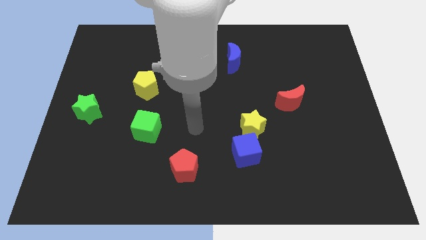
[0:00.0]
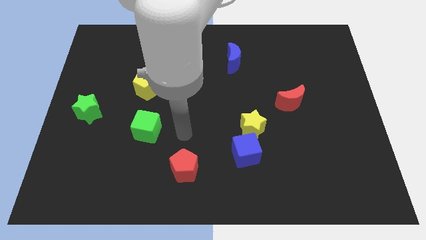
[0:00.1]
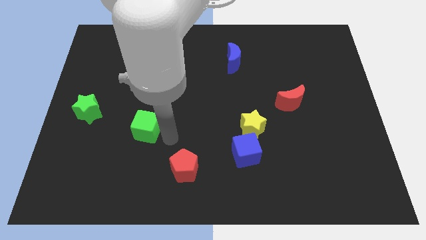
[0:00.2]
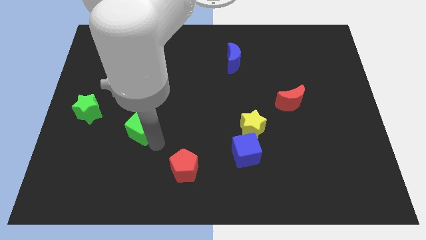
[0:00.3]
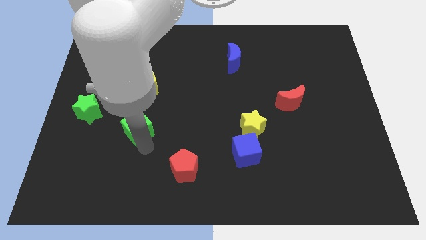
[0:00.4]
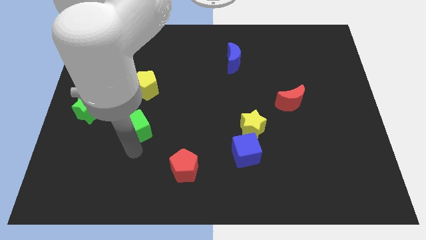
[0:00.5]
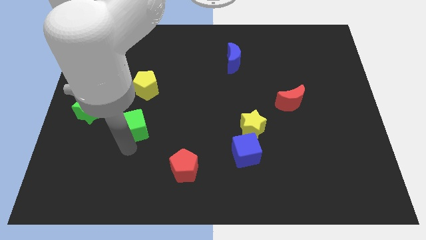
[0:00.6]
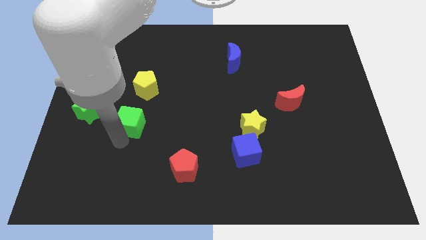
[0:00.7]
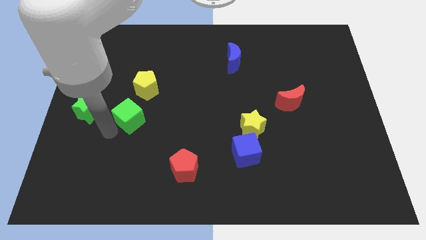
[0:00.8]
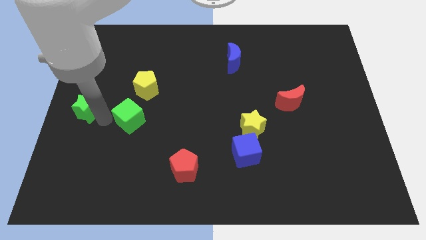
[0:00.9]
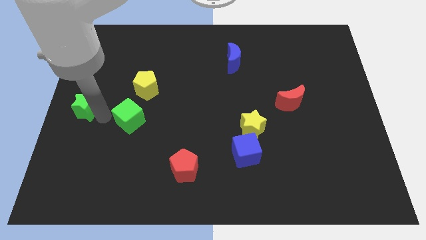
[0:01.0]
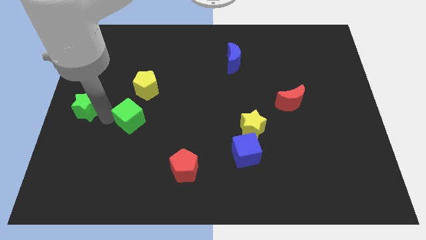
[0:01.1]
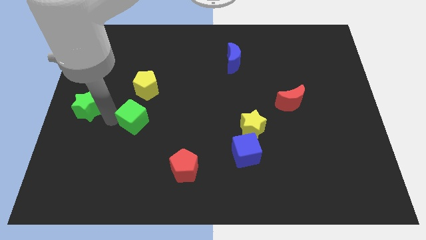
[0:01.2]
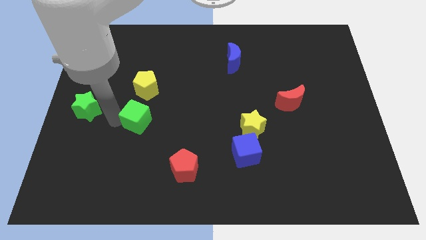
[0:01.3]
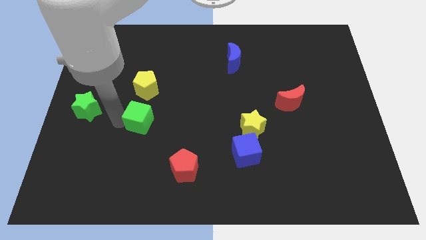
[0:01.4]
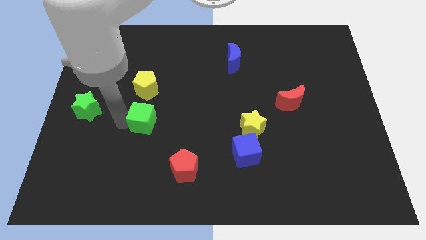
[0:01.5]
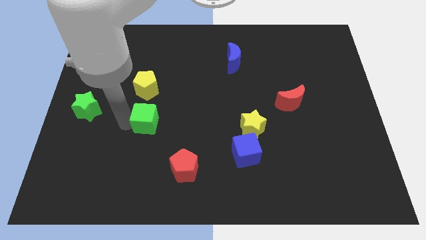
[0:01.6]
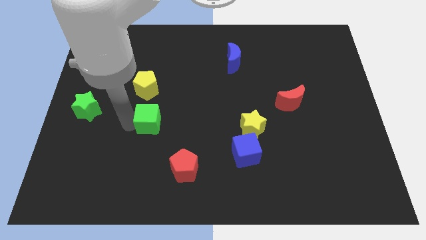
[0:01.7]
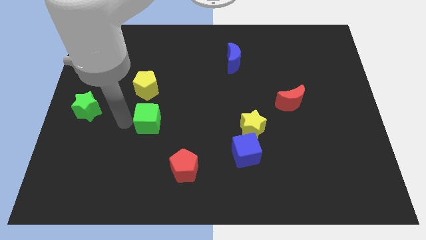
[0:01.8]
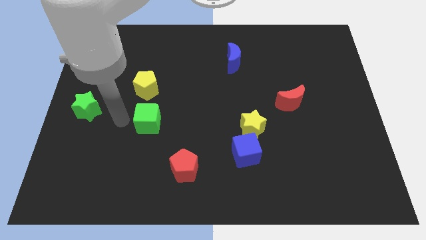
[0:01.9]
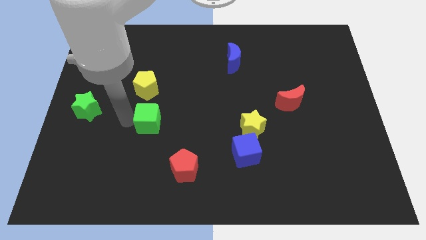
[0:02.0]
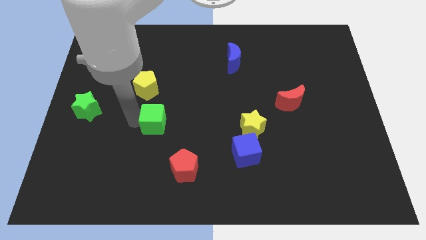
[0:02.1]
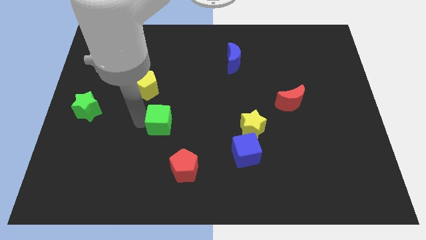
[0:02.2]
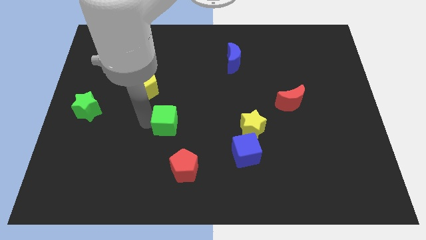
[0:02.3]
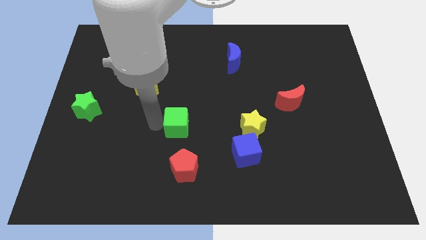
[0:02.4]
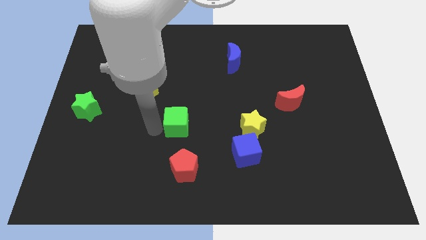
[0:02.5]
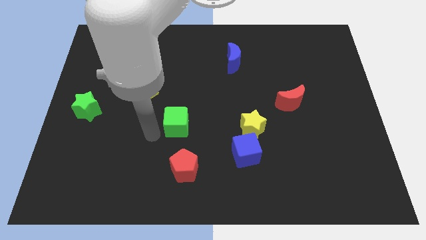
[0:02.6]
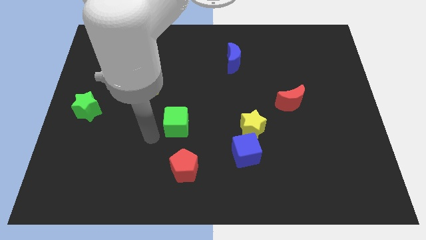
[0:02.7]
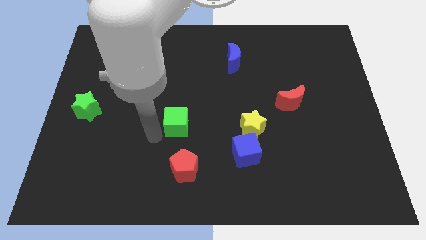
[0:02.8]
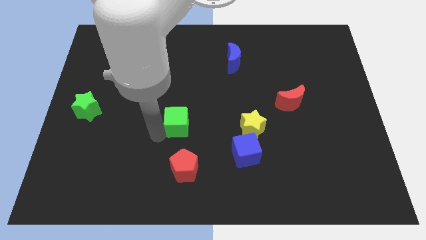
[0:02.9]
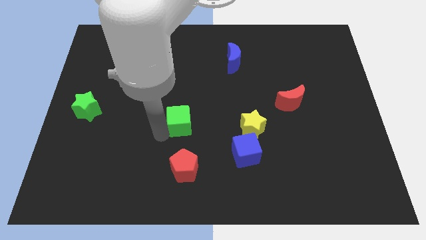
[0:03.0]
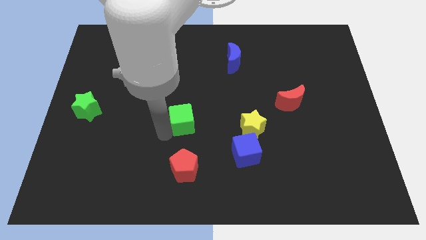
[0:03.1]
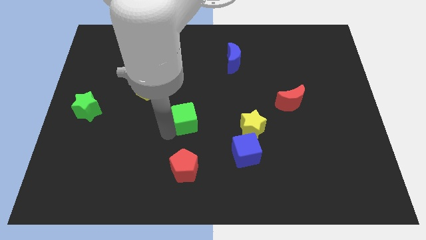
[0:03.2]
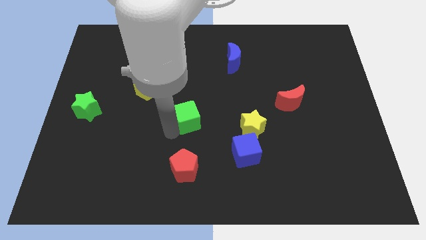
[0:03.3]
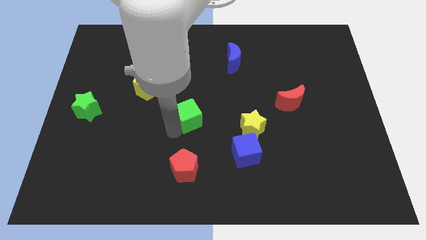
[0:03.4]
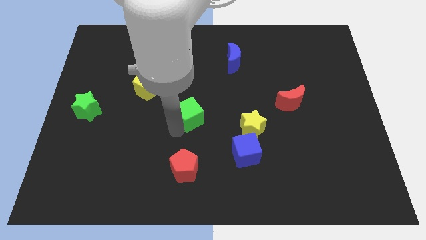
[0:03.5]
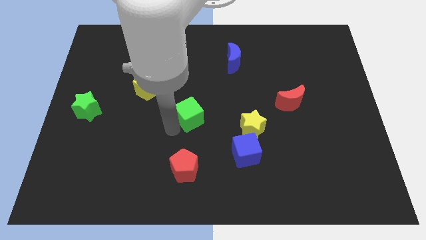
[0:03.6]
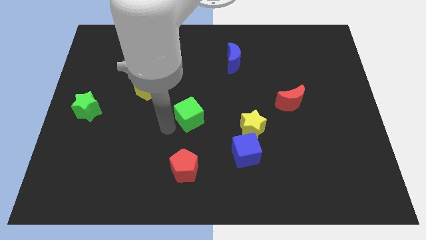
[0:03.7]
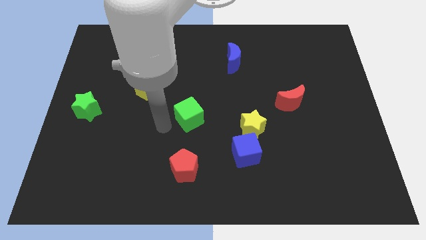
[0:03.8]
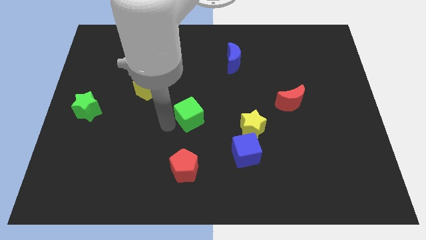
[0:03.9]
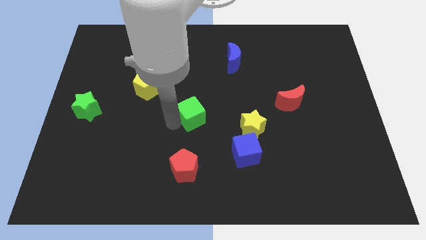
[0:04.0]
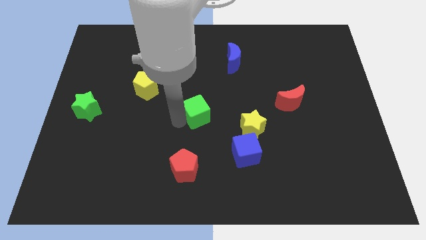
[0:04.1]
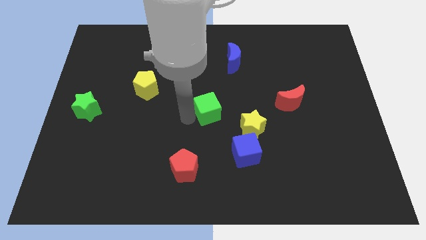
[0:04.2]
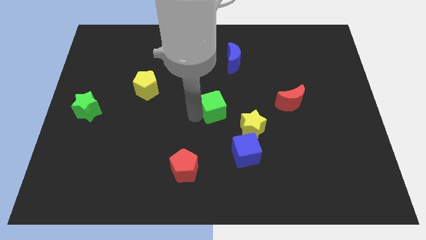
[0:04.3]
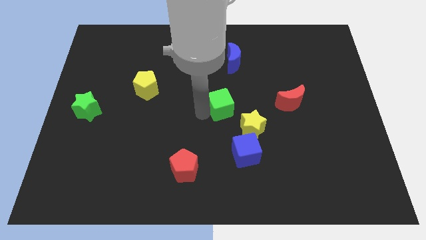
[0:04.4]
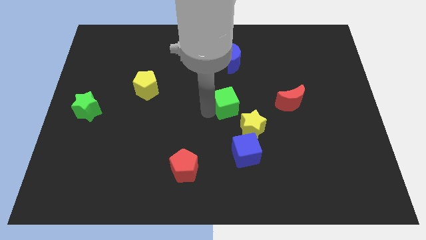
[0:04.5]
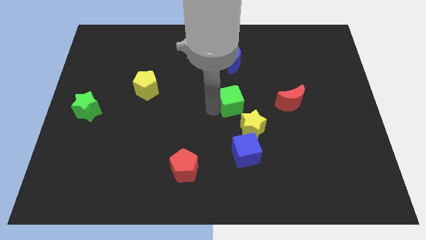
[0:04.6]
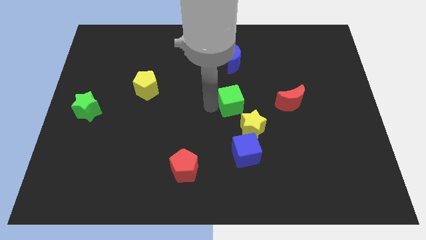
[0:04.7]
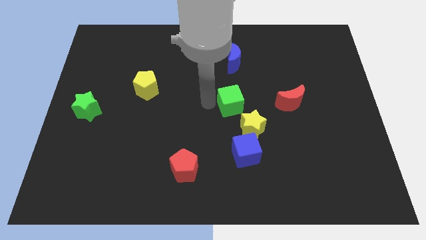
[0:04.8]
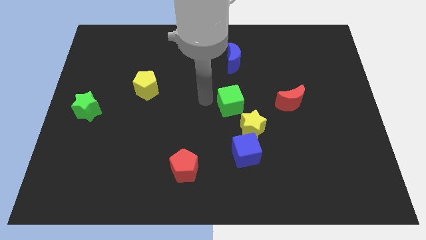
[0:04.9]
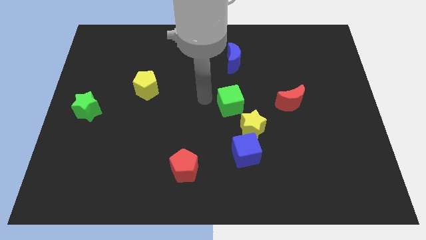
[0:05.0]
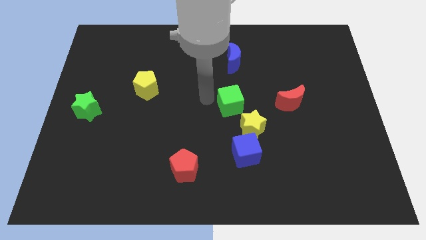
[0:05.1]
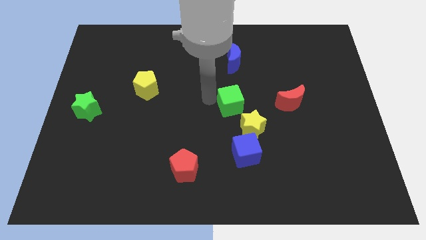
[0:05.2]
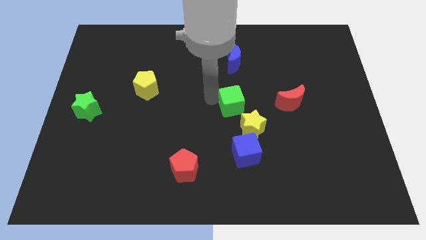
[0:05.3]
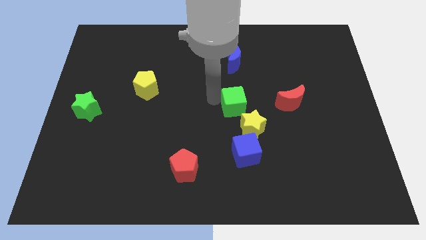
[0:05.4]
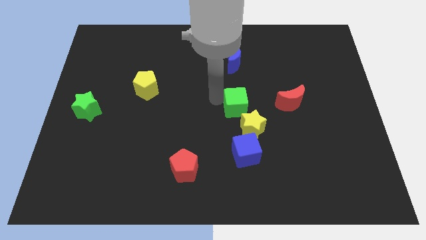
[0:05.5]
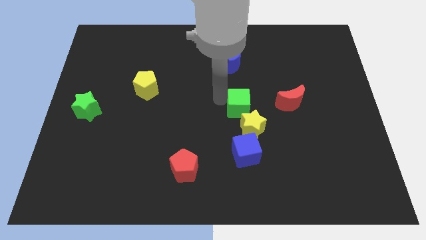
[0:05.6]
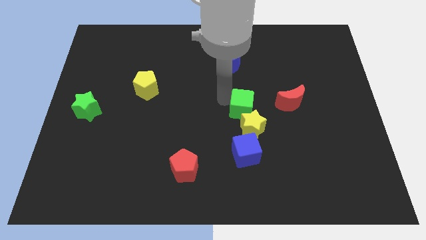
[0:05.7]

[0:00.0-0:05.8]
move the green cube to the right

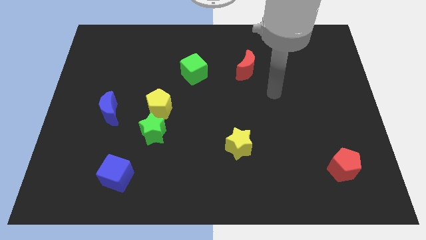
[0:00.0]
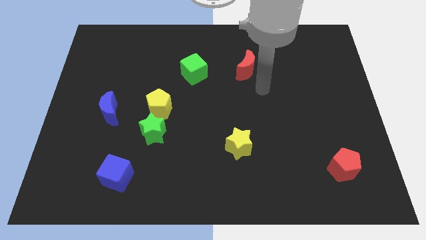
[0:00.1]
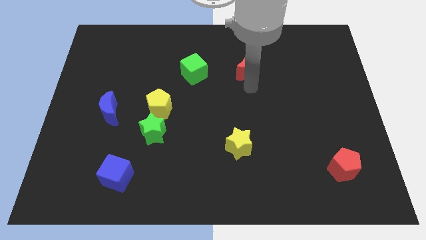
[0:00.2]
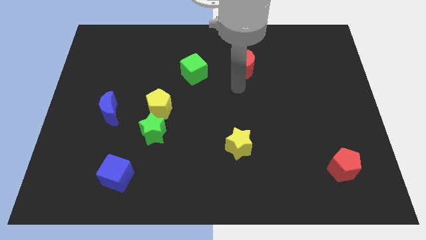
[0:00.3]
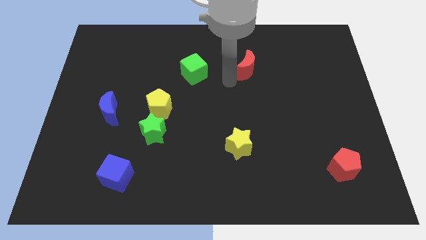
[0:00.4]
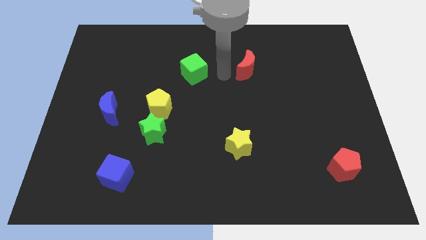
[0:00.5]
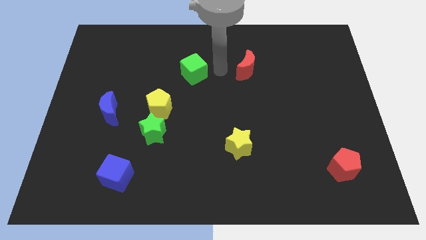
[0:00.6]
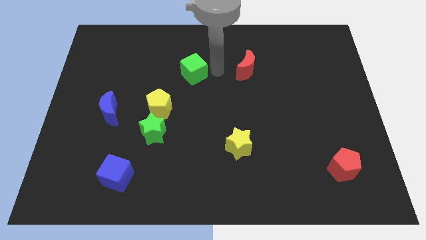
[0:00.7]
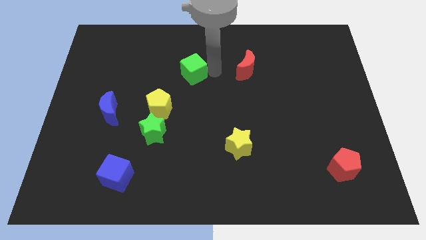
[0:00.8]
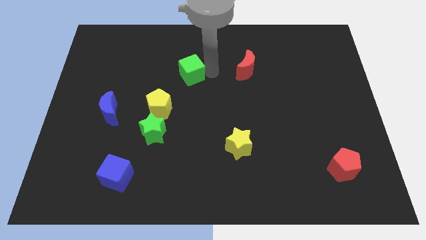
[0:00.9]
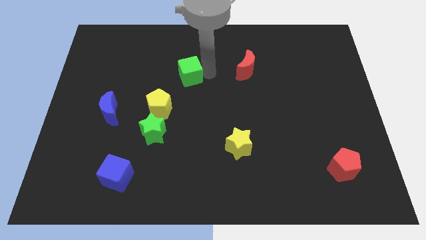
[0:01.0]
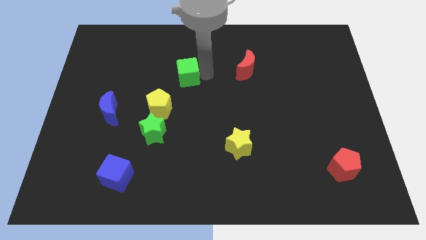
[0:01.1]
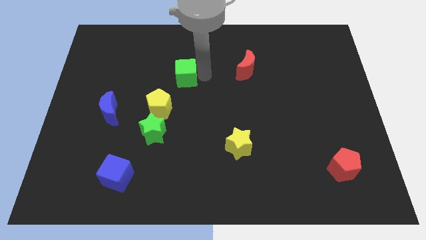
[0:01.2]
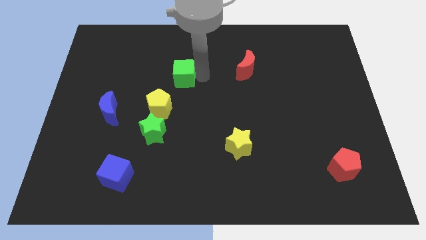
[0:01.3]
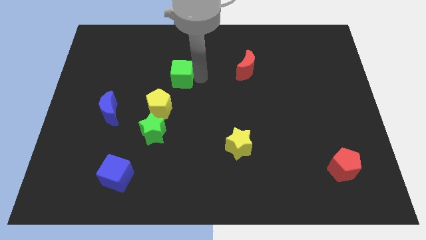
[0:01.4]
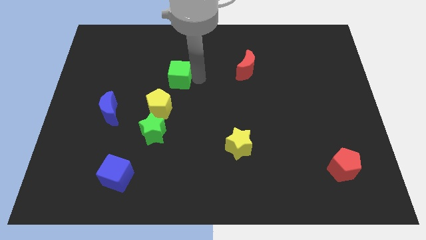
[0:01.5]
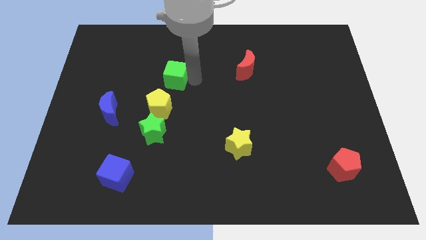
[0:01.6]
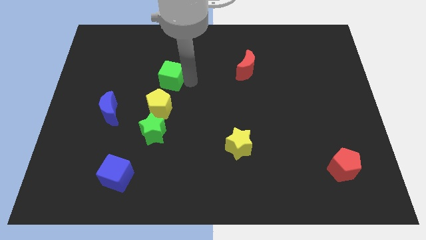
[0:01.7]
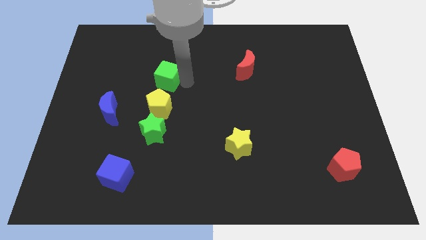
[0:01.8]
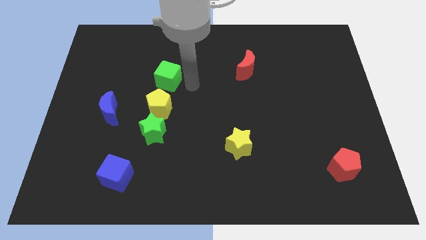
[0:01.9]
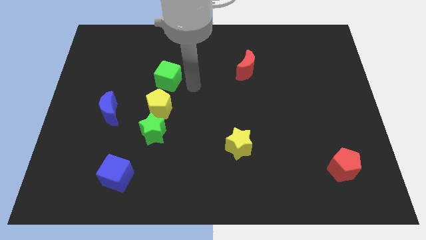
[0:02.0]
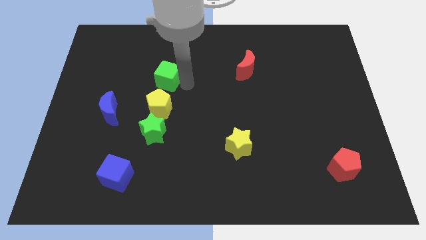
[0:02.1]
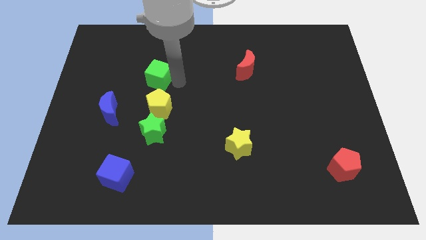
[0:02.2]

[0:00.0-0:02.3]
slightly move the green cube left
